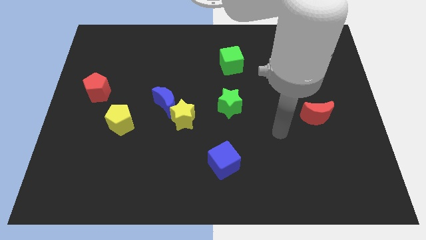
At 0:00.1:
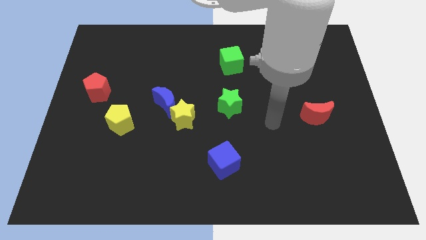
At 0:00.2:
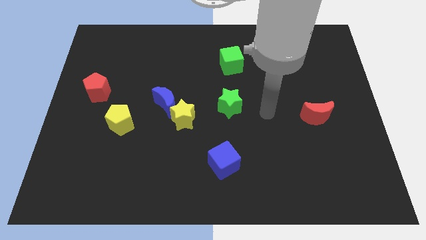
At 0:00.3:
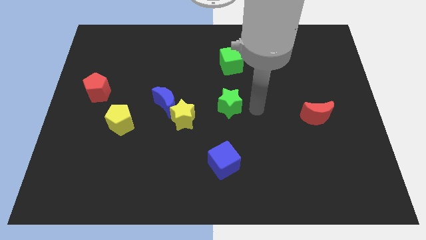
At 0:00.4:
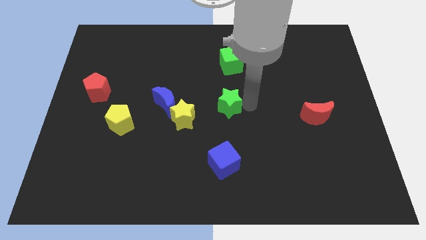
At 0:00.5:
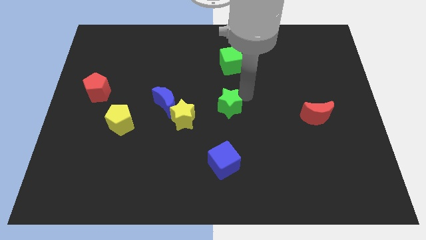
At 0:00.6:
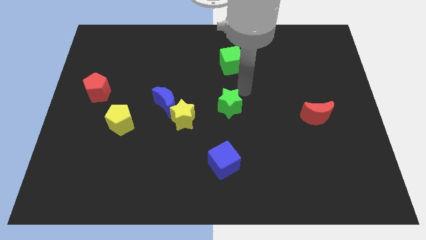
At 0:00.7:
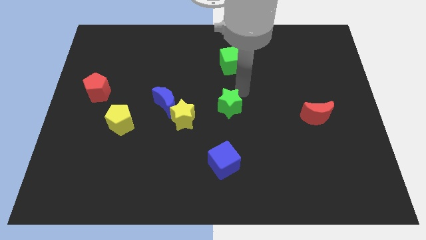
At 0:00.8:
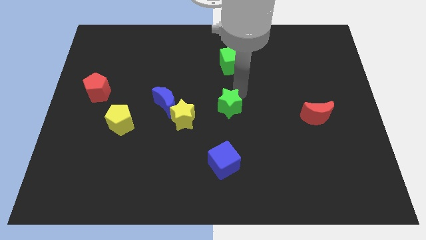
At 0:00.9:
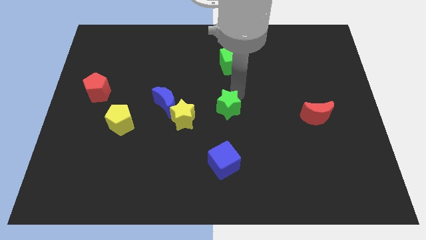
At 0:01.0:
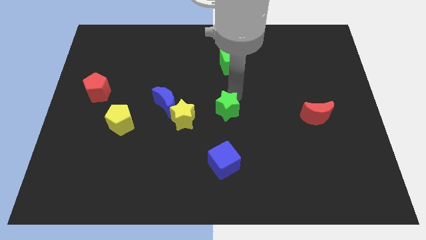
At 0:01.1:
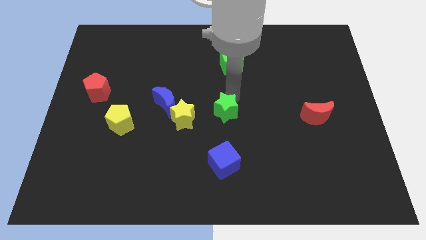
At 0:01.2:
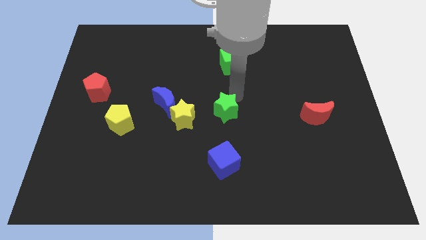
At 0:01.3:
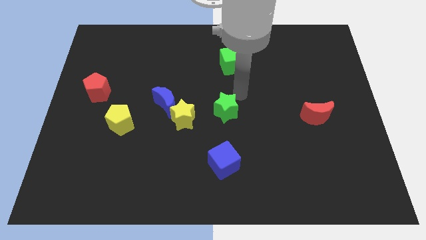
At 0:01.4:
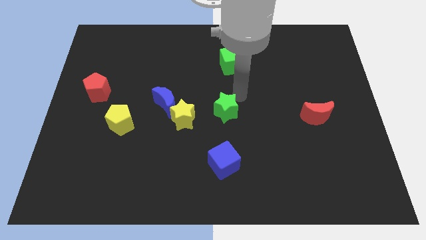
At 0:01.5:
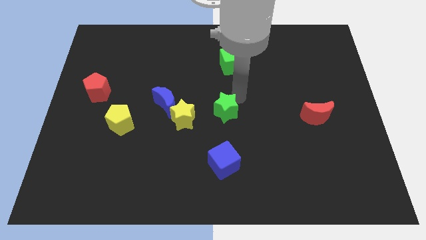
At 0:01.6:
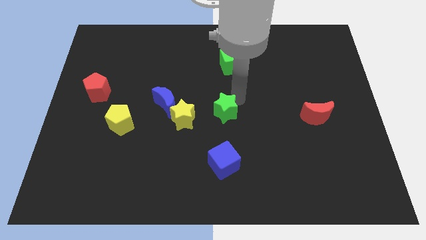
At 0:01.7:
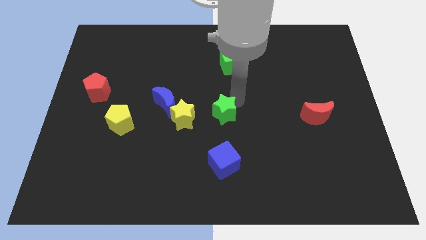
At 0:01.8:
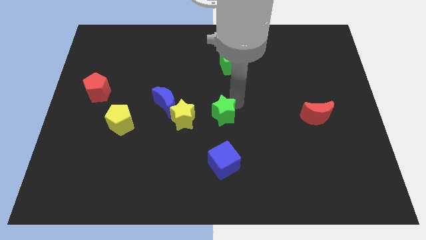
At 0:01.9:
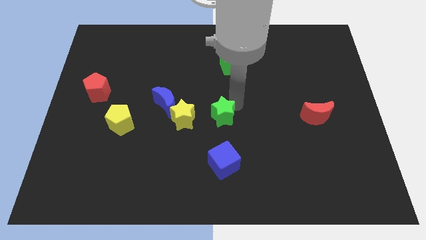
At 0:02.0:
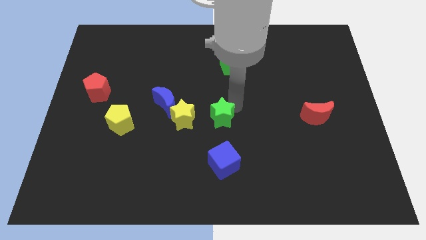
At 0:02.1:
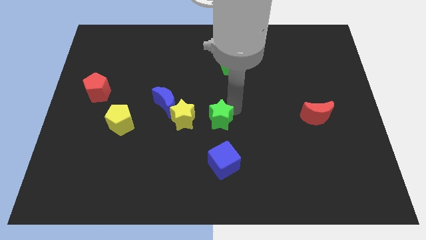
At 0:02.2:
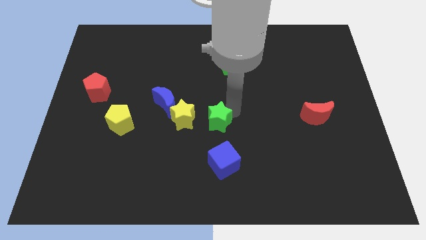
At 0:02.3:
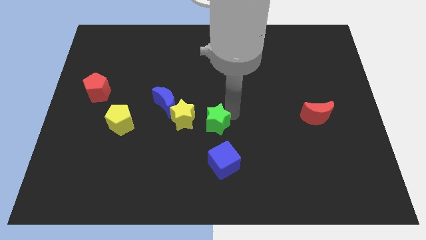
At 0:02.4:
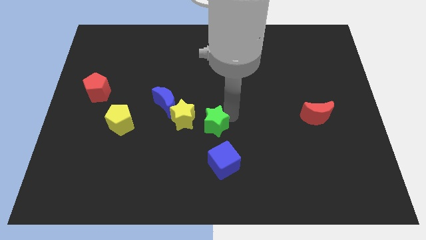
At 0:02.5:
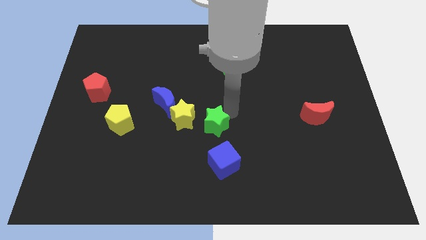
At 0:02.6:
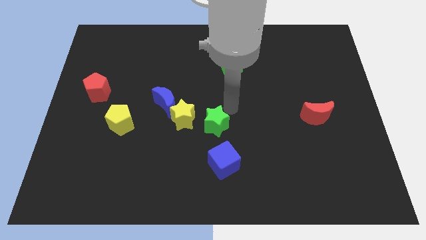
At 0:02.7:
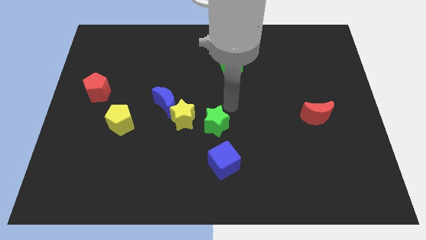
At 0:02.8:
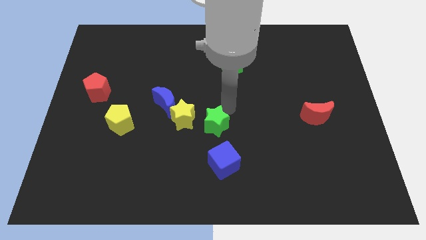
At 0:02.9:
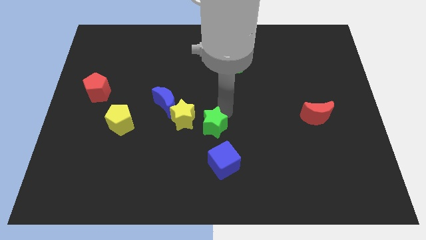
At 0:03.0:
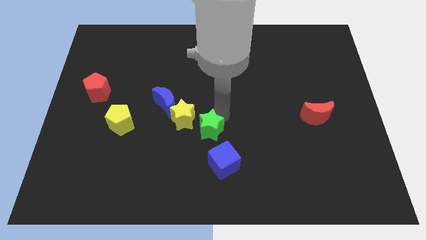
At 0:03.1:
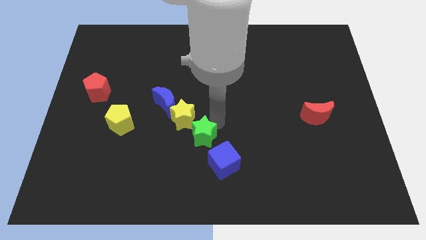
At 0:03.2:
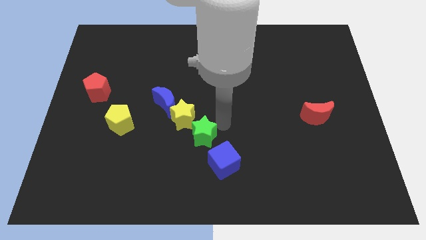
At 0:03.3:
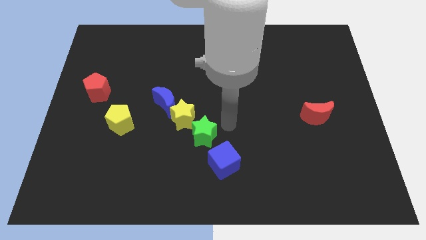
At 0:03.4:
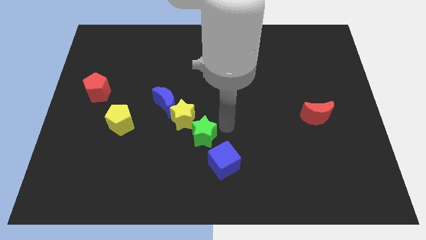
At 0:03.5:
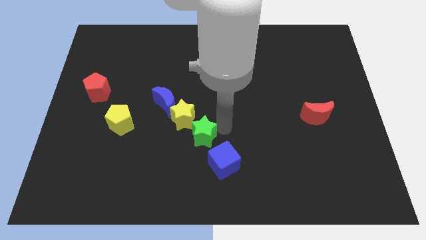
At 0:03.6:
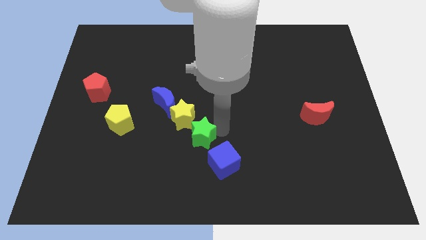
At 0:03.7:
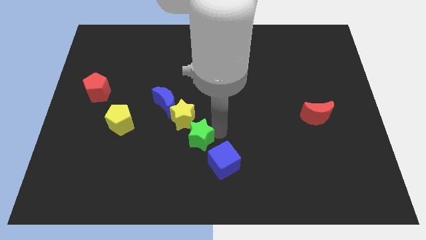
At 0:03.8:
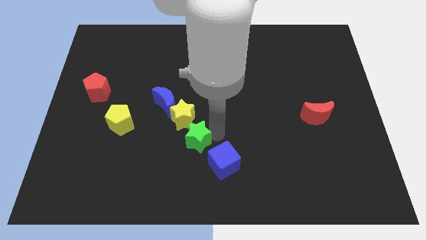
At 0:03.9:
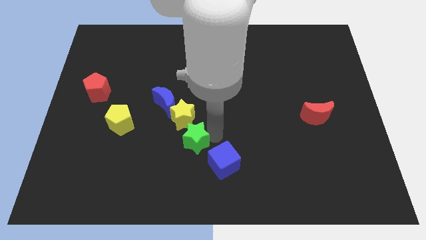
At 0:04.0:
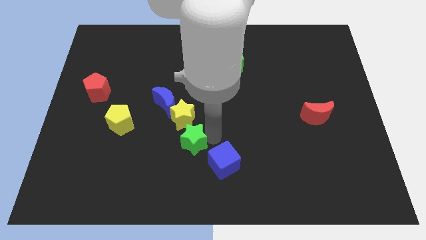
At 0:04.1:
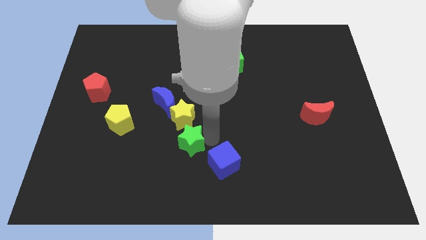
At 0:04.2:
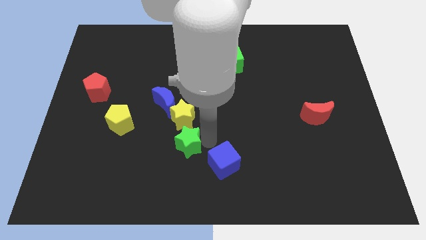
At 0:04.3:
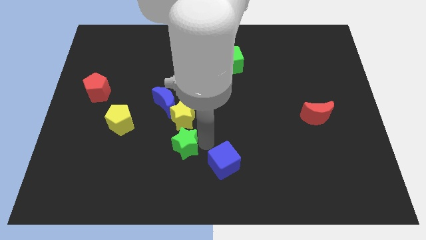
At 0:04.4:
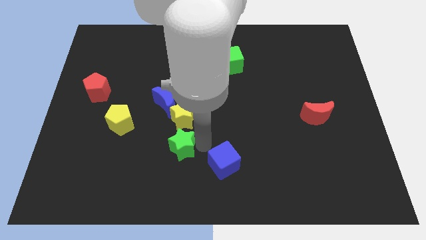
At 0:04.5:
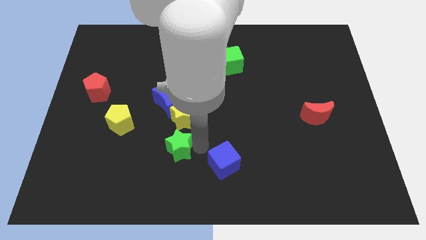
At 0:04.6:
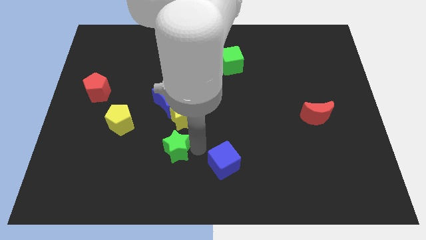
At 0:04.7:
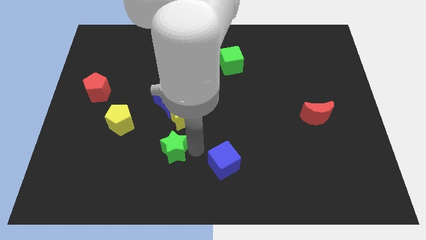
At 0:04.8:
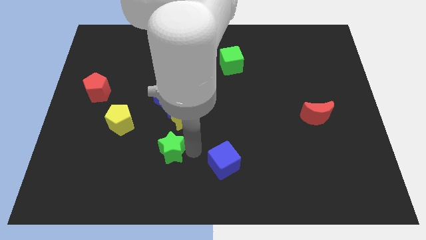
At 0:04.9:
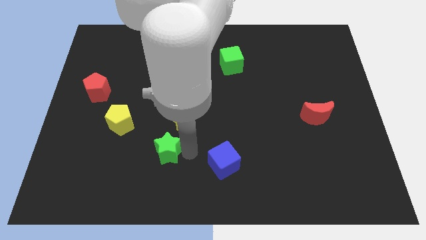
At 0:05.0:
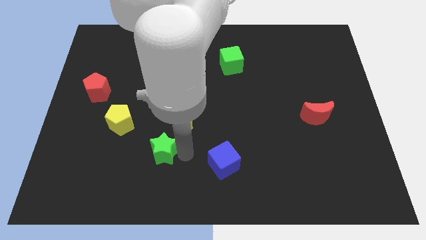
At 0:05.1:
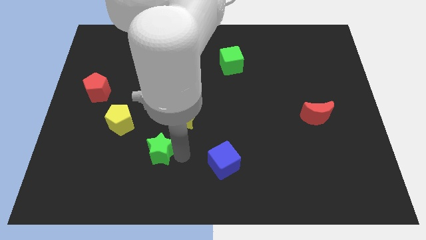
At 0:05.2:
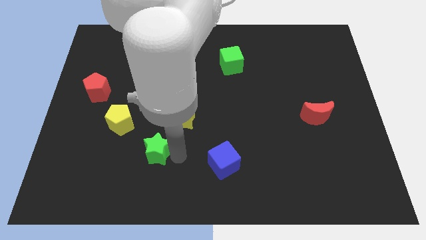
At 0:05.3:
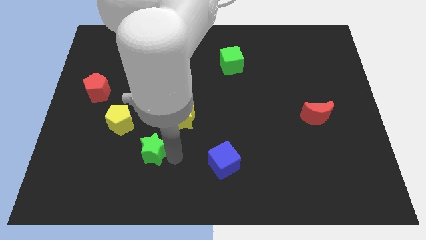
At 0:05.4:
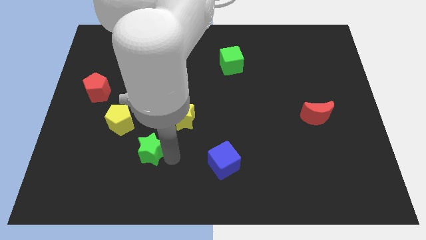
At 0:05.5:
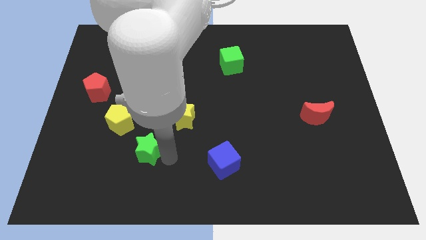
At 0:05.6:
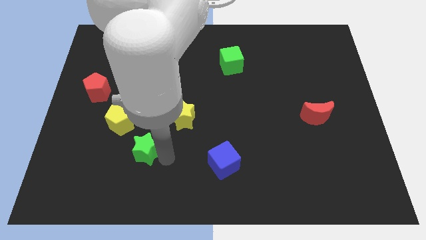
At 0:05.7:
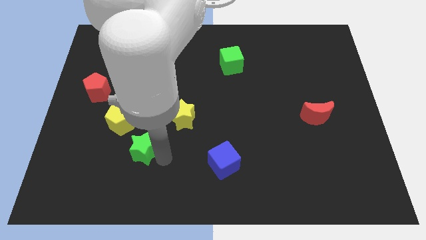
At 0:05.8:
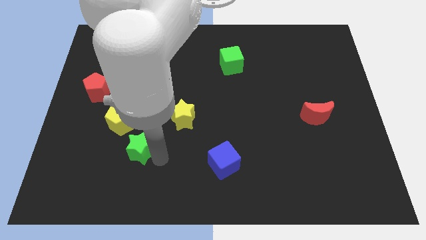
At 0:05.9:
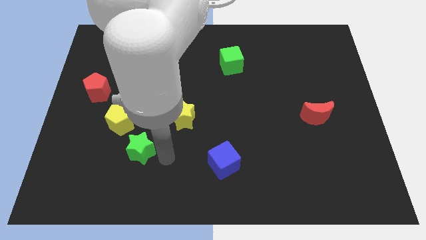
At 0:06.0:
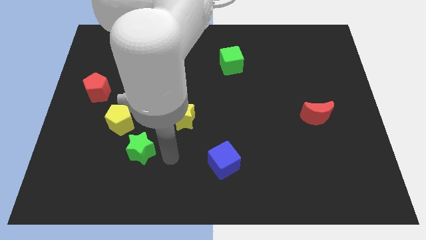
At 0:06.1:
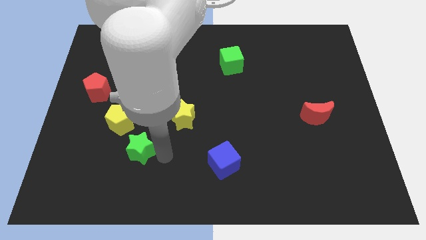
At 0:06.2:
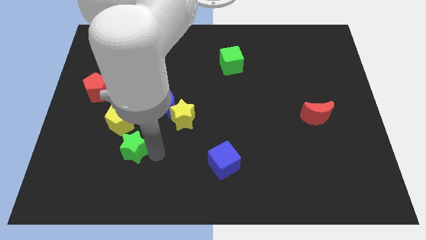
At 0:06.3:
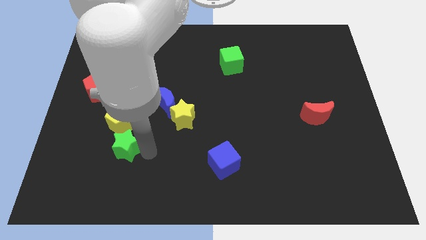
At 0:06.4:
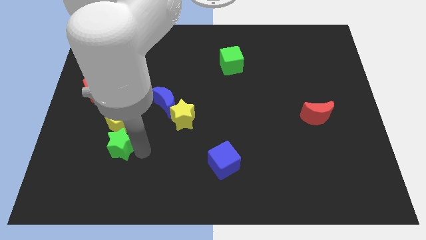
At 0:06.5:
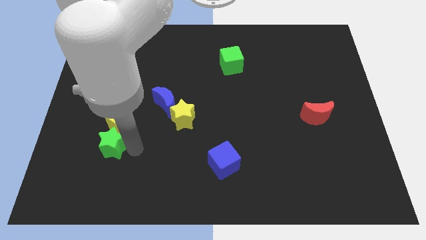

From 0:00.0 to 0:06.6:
push the green star to the bottom left of the yellow pentagon
